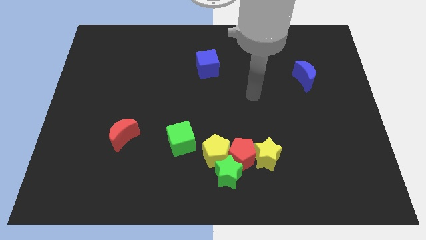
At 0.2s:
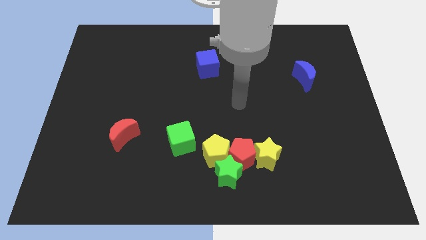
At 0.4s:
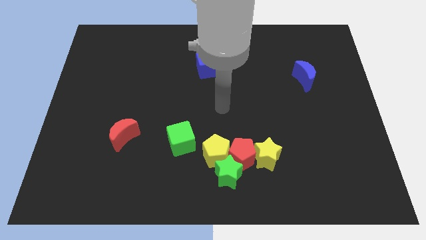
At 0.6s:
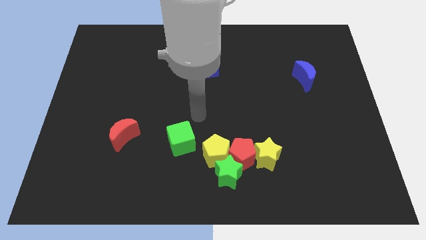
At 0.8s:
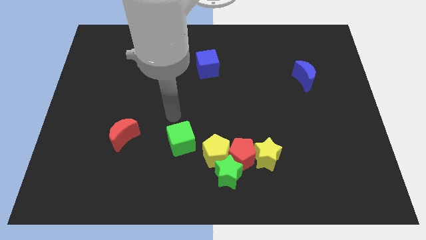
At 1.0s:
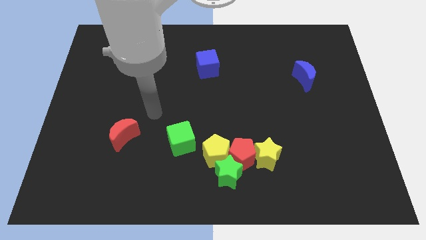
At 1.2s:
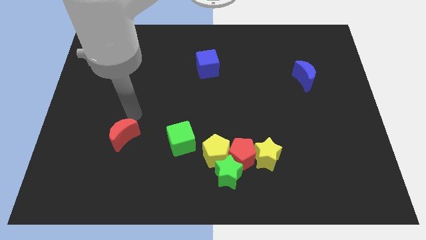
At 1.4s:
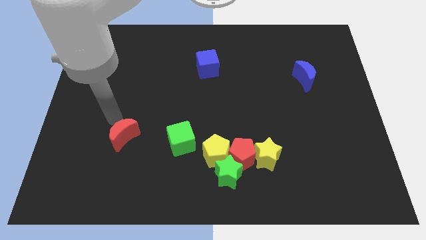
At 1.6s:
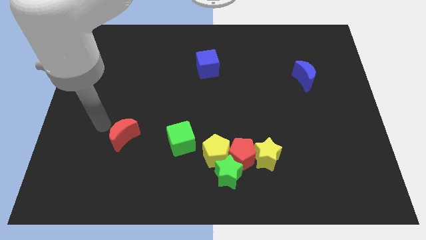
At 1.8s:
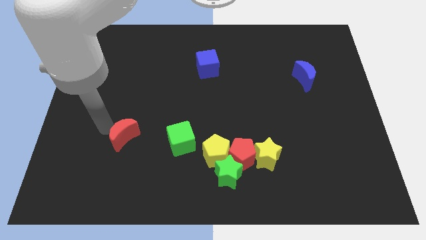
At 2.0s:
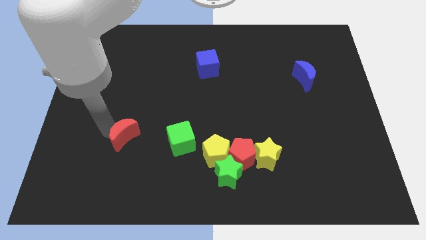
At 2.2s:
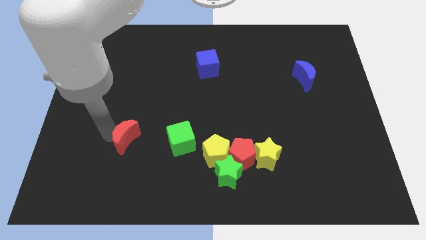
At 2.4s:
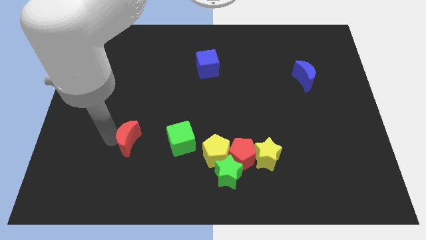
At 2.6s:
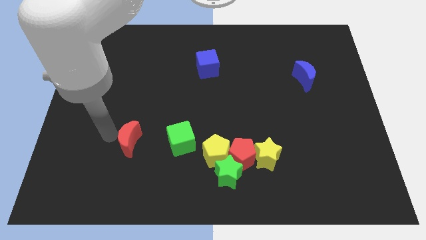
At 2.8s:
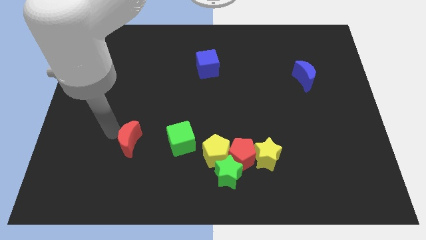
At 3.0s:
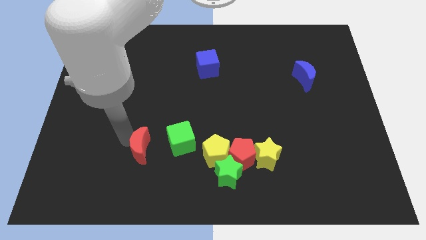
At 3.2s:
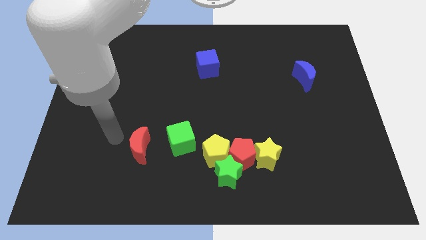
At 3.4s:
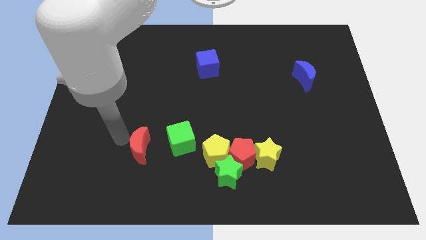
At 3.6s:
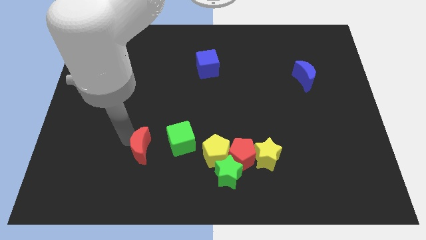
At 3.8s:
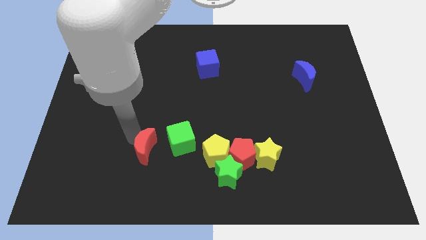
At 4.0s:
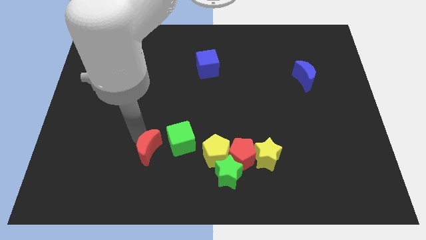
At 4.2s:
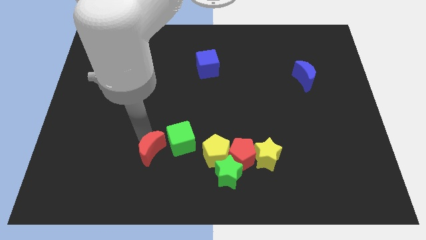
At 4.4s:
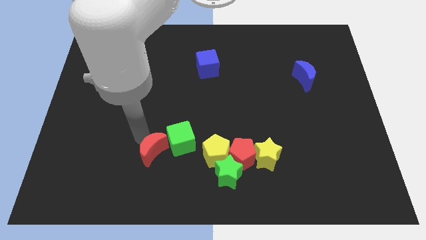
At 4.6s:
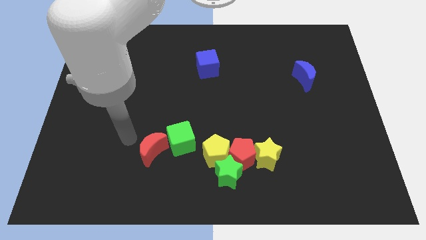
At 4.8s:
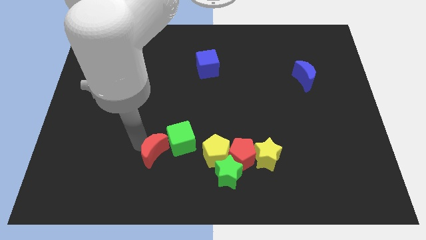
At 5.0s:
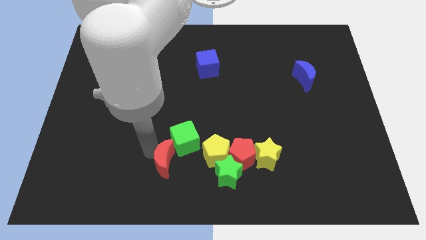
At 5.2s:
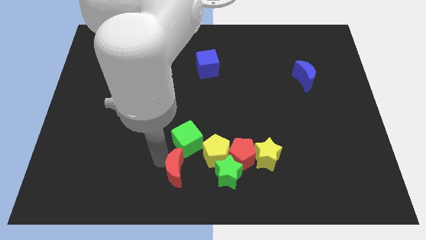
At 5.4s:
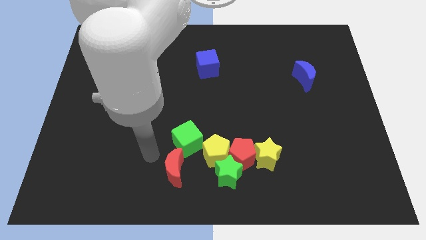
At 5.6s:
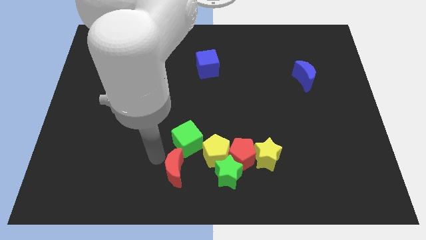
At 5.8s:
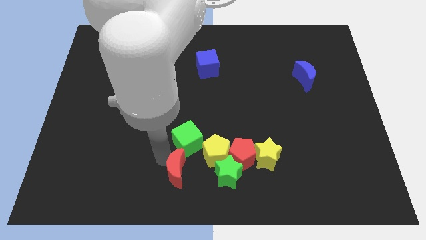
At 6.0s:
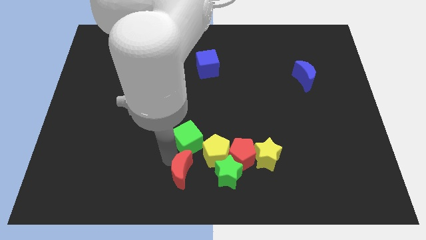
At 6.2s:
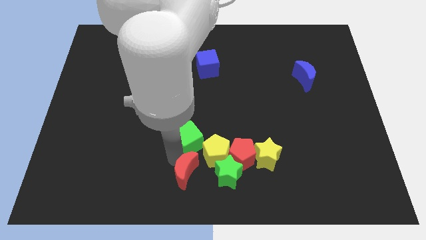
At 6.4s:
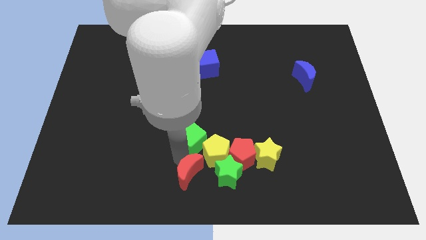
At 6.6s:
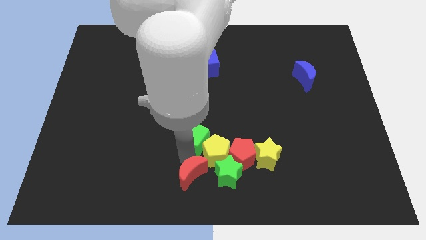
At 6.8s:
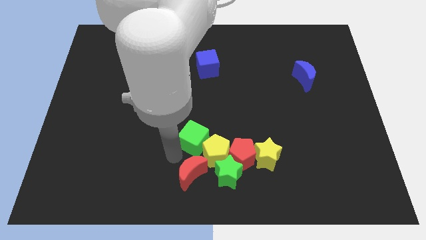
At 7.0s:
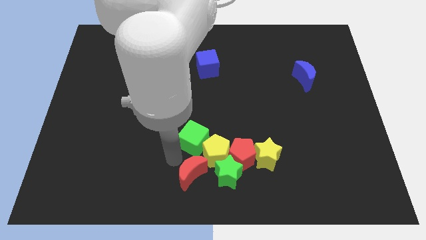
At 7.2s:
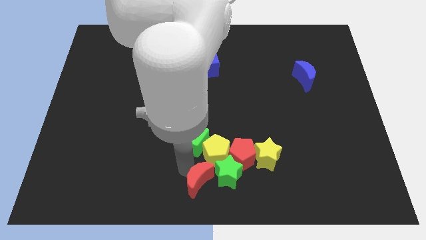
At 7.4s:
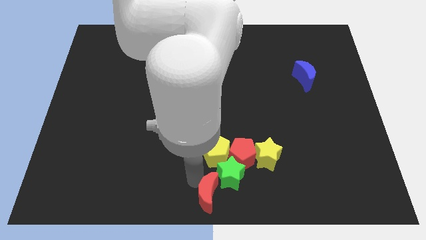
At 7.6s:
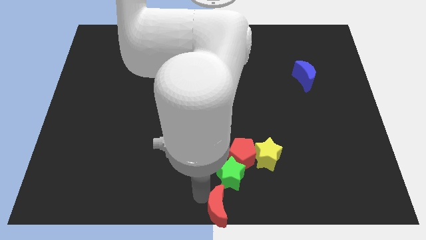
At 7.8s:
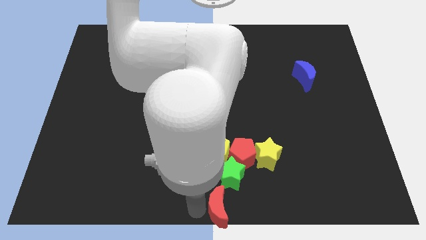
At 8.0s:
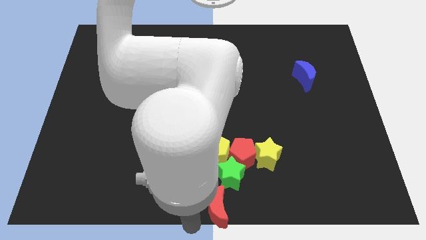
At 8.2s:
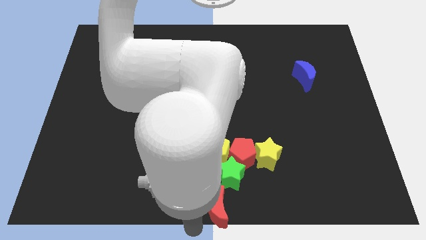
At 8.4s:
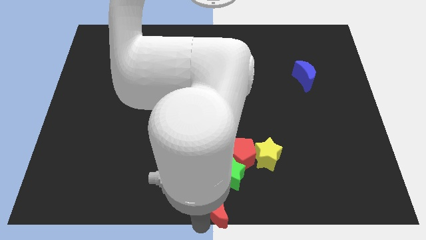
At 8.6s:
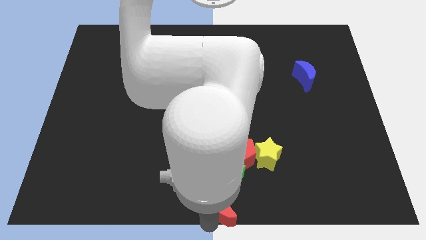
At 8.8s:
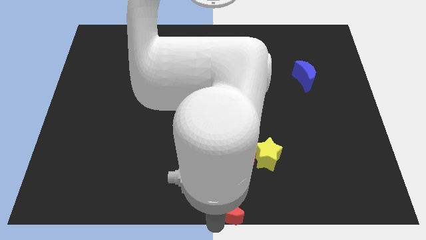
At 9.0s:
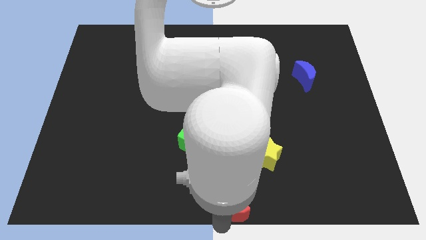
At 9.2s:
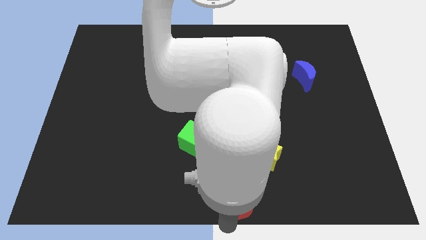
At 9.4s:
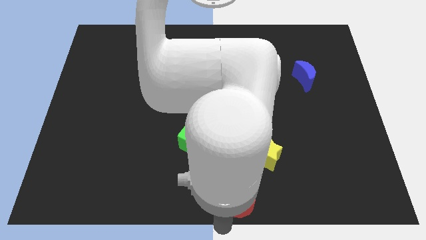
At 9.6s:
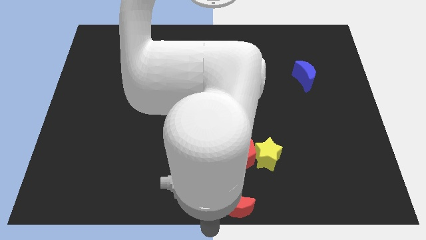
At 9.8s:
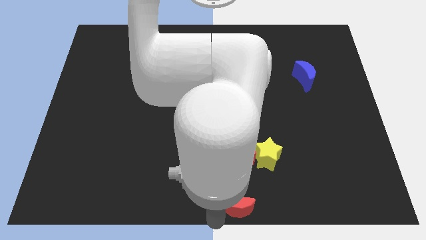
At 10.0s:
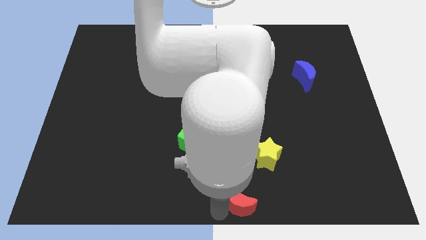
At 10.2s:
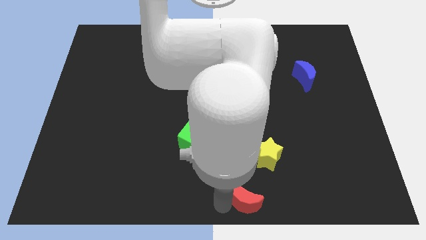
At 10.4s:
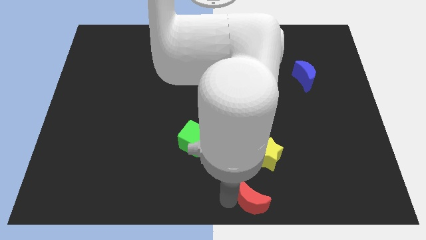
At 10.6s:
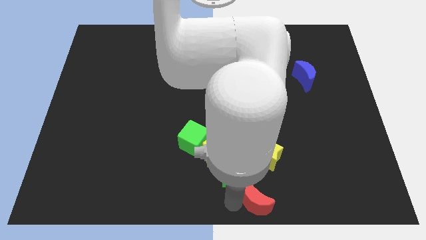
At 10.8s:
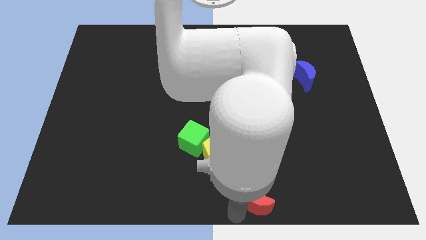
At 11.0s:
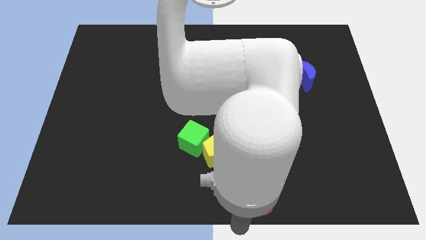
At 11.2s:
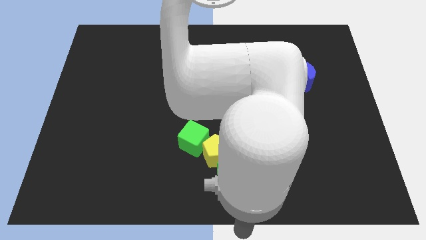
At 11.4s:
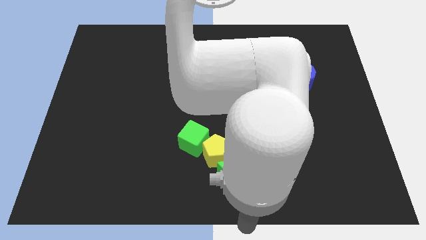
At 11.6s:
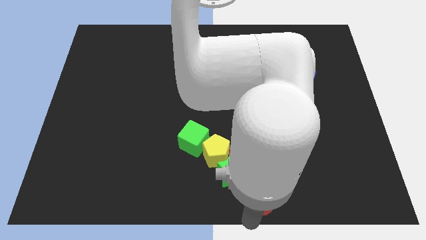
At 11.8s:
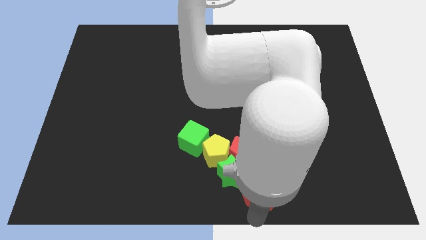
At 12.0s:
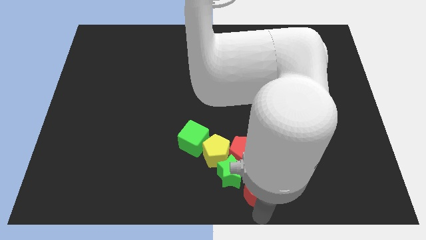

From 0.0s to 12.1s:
push the red moon right of the green star

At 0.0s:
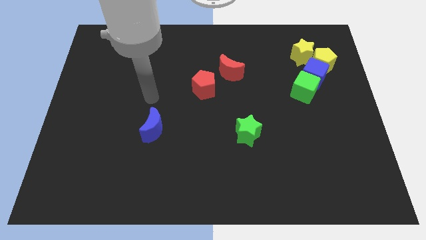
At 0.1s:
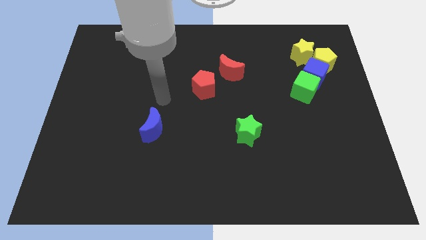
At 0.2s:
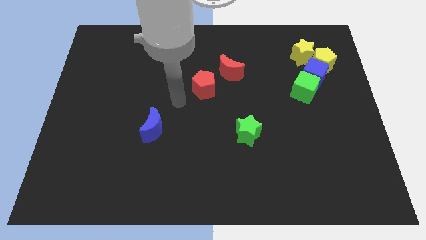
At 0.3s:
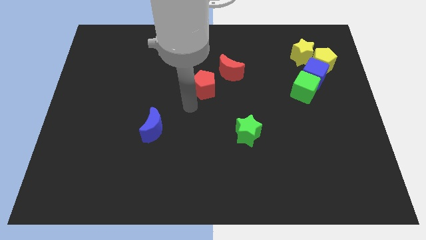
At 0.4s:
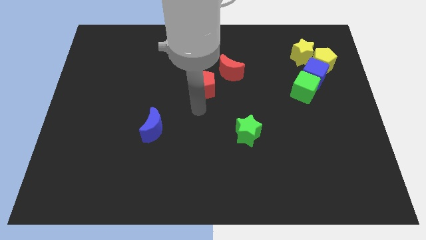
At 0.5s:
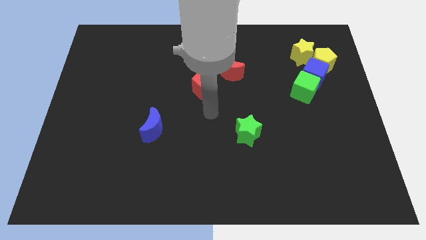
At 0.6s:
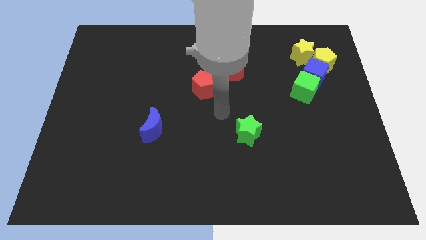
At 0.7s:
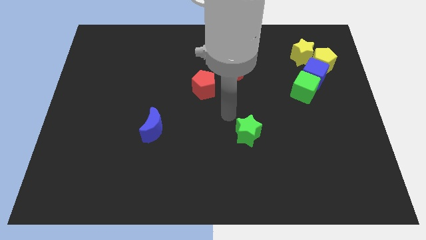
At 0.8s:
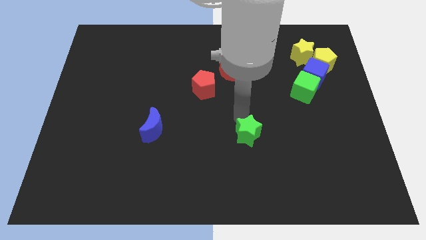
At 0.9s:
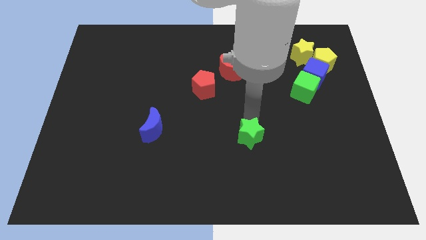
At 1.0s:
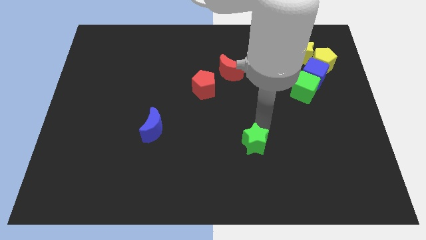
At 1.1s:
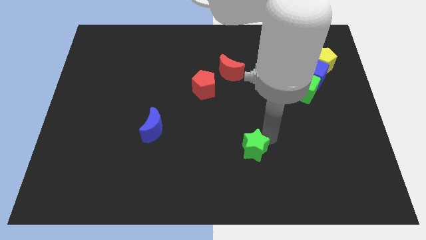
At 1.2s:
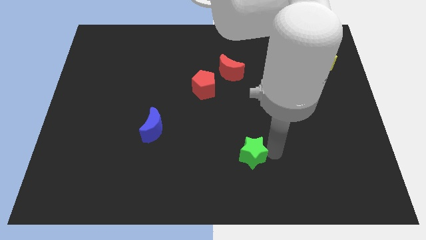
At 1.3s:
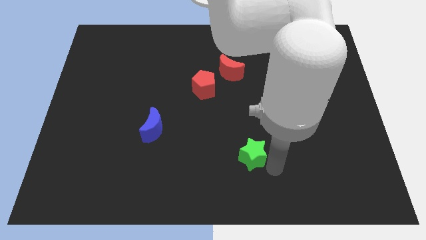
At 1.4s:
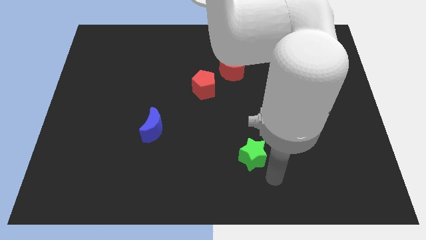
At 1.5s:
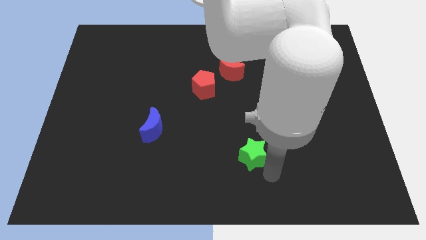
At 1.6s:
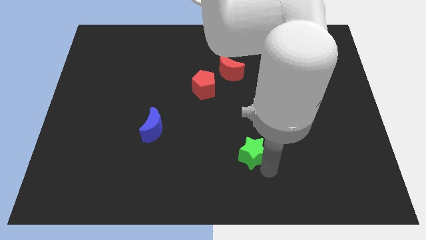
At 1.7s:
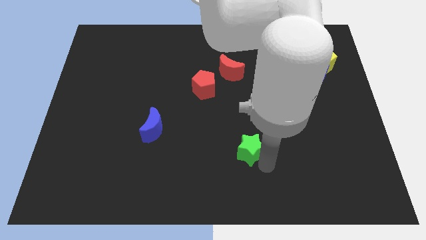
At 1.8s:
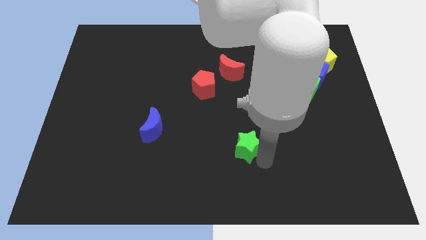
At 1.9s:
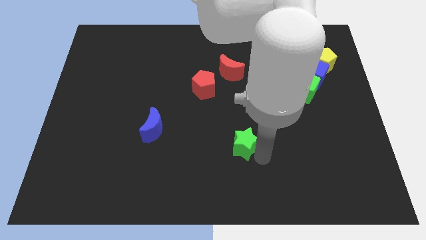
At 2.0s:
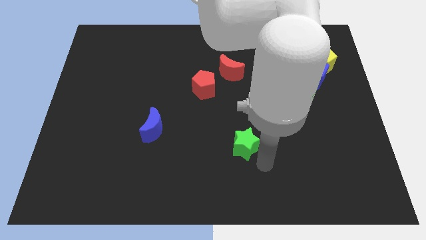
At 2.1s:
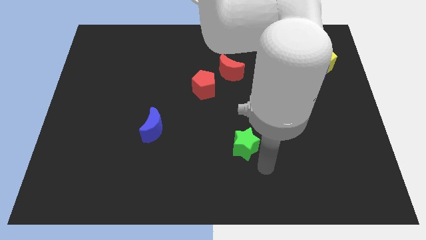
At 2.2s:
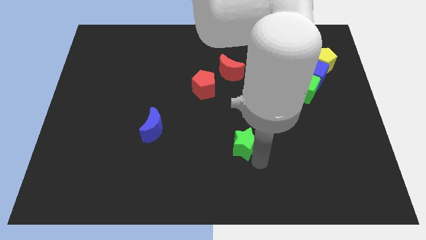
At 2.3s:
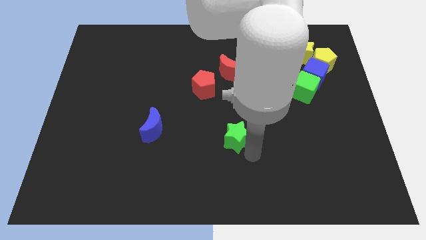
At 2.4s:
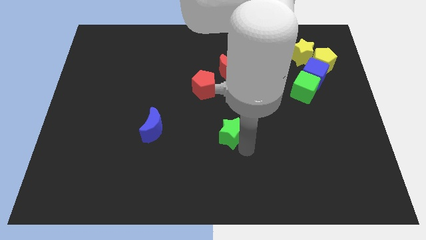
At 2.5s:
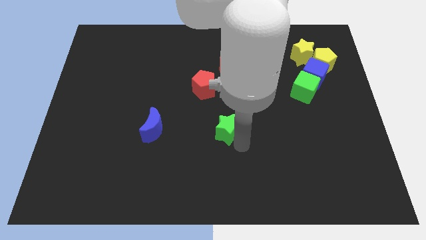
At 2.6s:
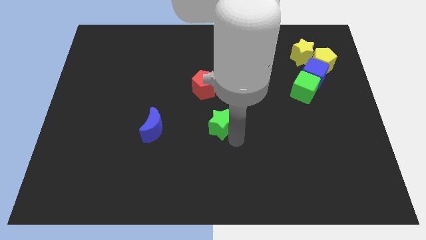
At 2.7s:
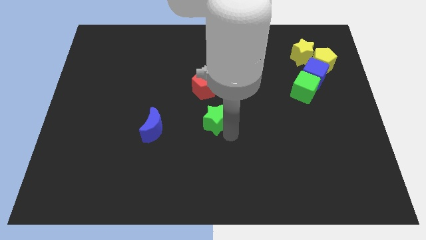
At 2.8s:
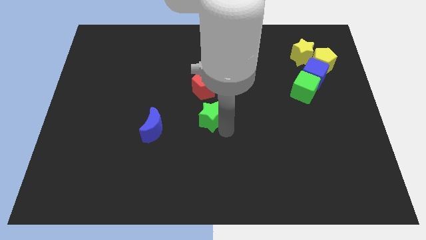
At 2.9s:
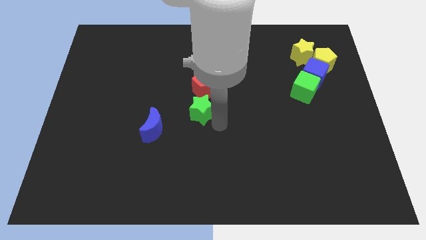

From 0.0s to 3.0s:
slide the green star to the bottom left of the red pentagon
